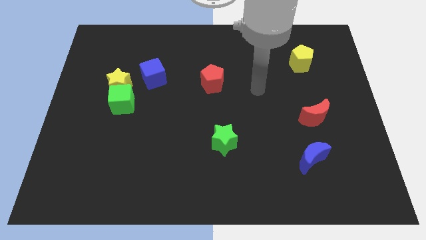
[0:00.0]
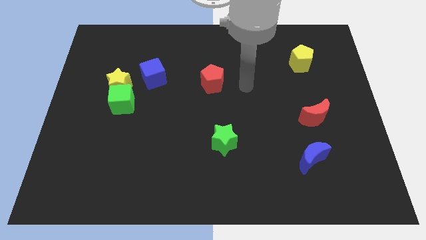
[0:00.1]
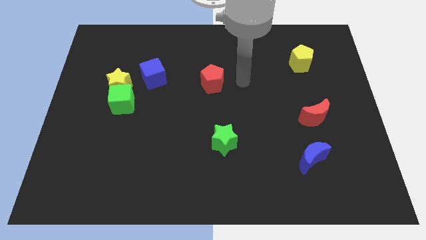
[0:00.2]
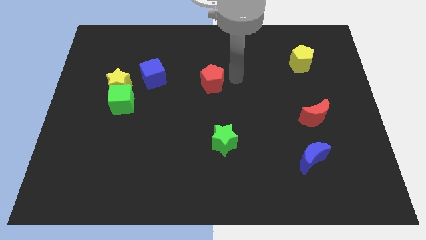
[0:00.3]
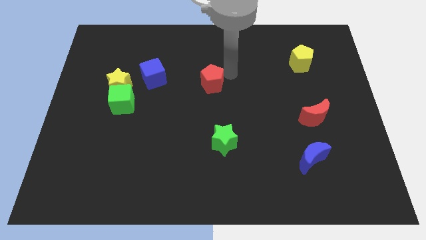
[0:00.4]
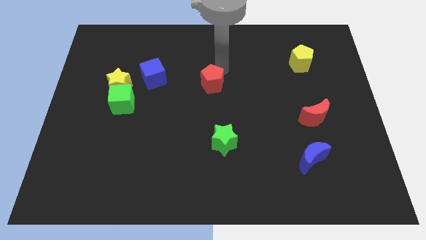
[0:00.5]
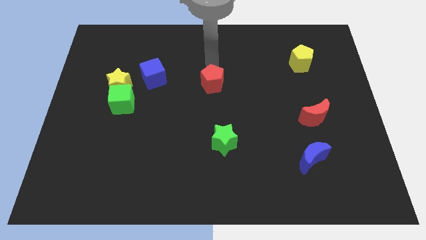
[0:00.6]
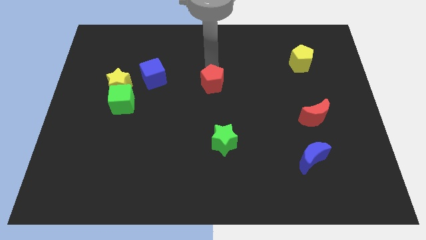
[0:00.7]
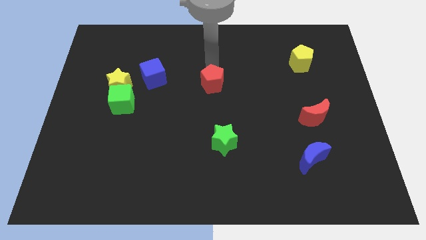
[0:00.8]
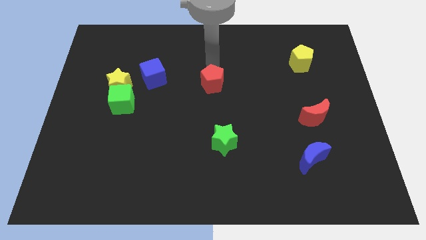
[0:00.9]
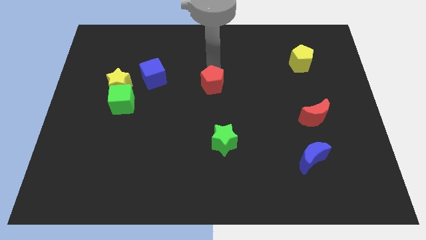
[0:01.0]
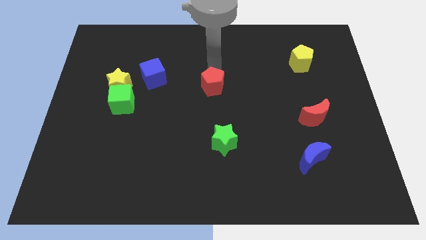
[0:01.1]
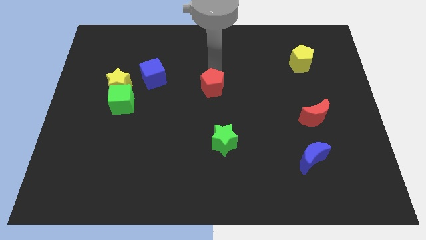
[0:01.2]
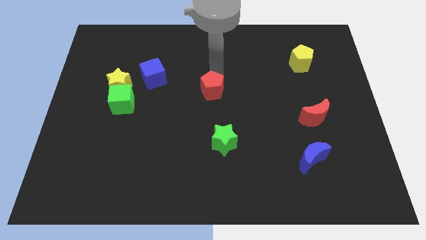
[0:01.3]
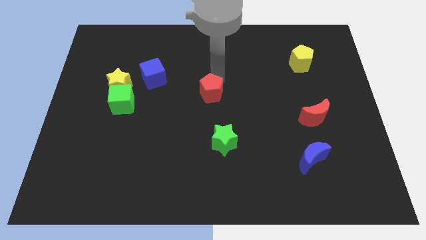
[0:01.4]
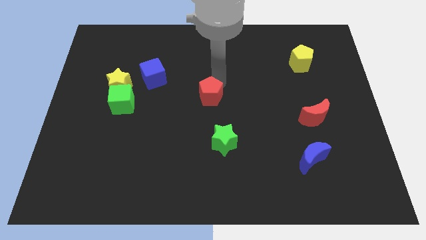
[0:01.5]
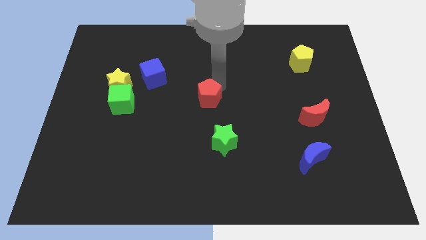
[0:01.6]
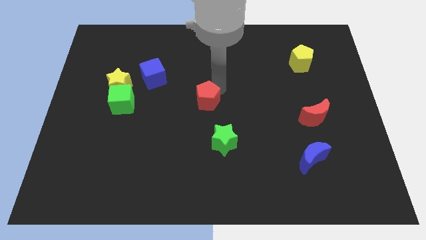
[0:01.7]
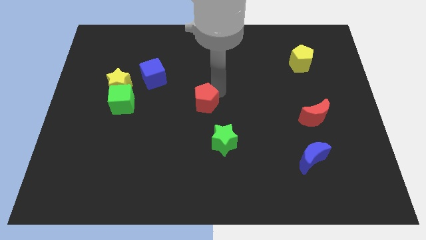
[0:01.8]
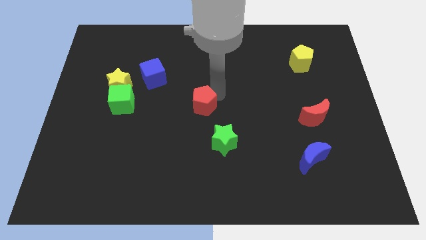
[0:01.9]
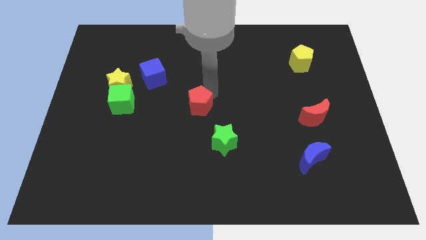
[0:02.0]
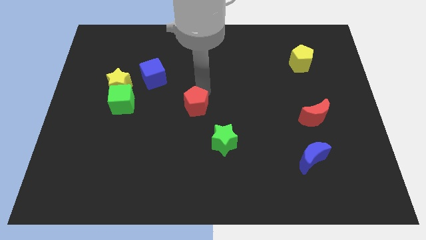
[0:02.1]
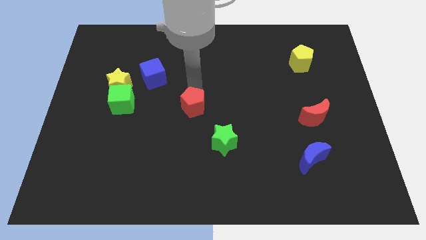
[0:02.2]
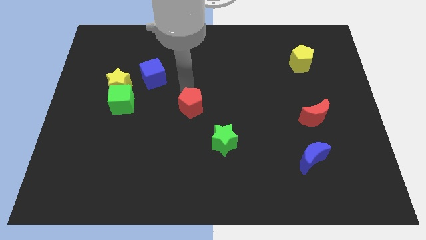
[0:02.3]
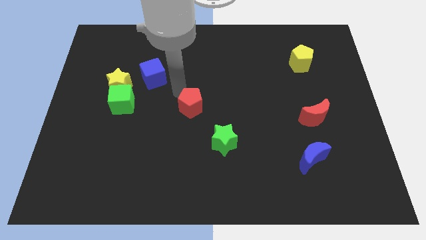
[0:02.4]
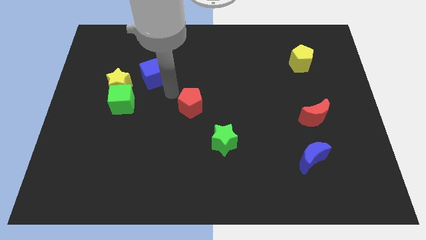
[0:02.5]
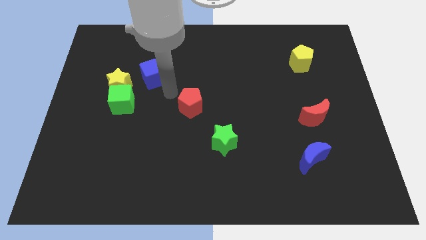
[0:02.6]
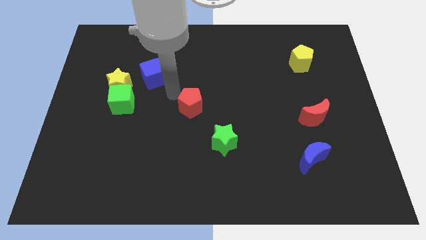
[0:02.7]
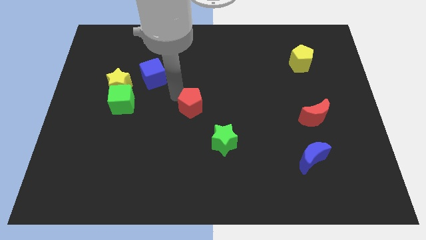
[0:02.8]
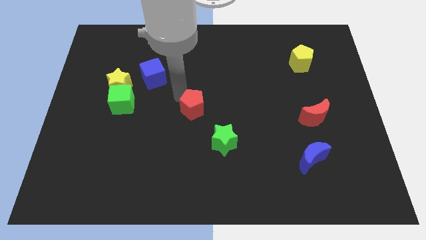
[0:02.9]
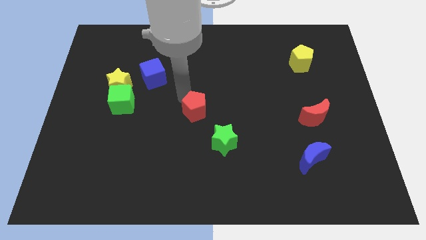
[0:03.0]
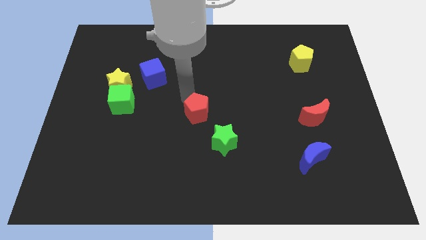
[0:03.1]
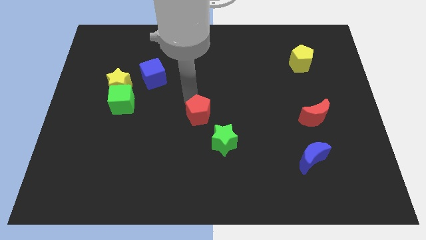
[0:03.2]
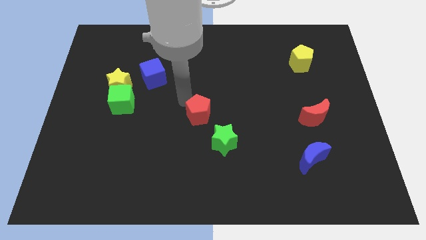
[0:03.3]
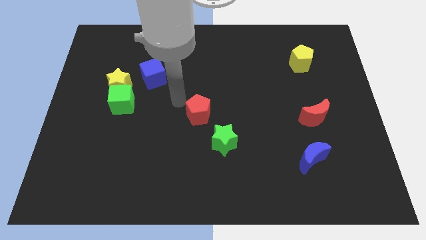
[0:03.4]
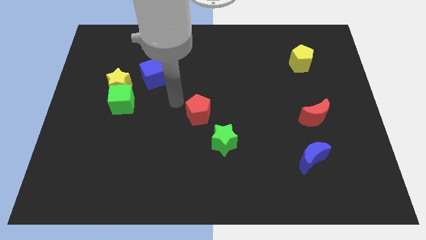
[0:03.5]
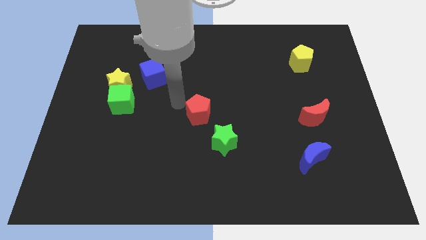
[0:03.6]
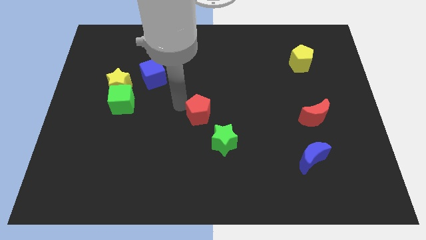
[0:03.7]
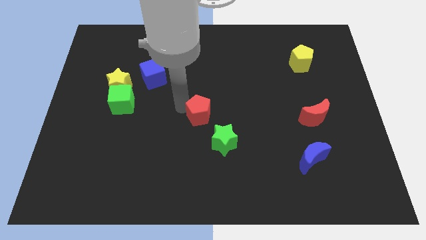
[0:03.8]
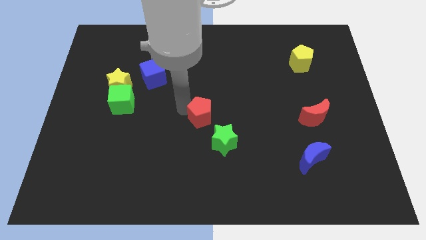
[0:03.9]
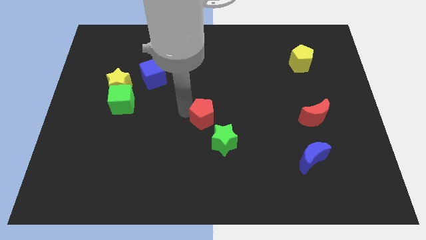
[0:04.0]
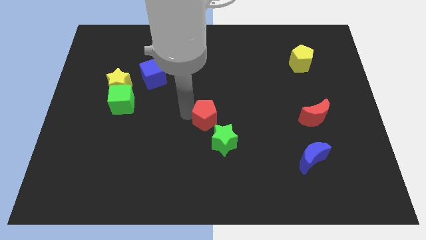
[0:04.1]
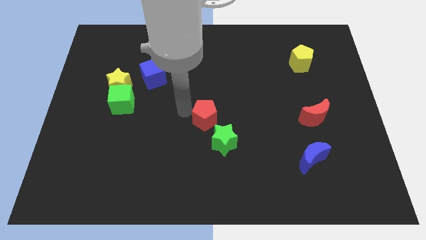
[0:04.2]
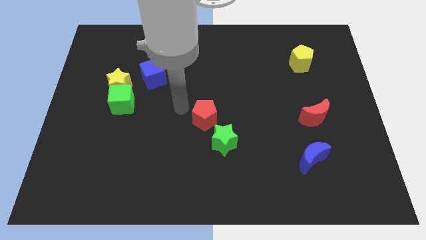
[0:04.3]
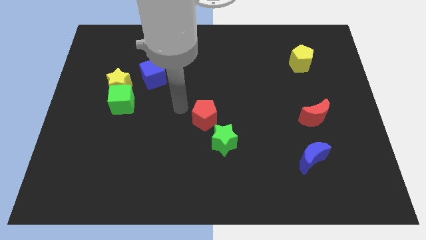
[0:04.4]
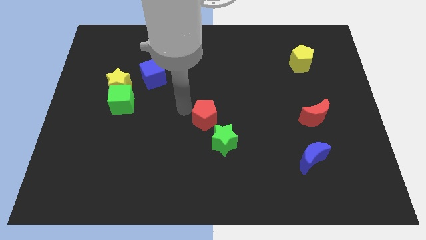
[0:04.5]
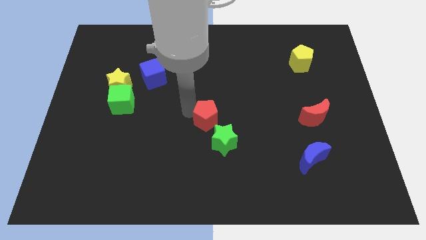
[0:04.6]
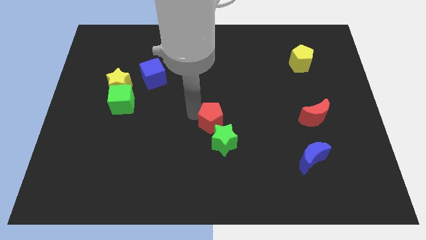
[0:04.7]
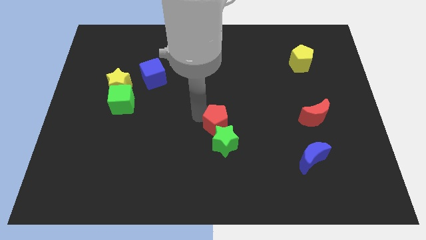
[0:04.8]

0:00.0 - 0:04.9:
move the red pentagon to the green star

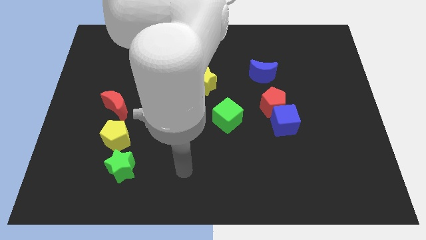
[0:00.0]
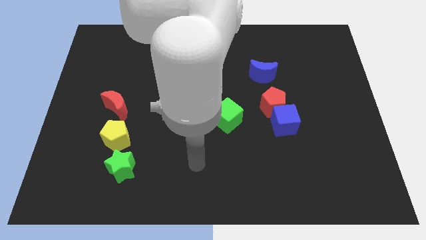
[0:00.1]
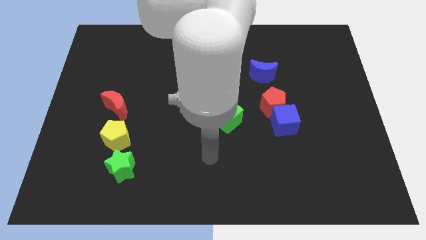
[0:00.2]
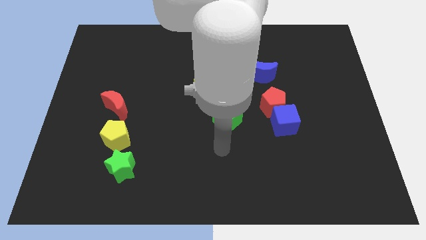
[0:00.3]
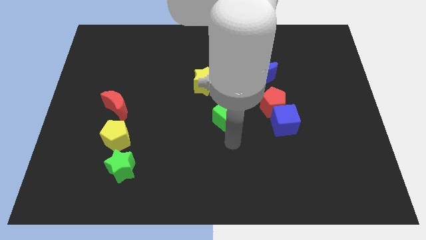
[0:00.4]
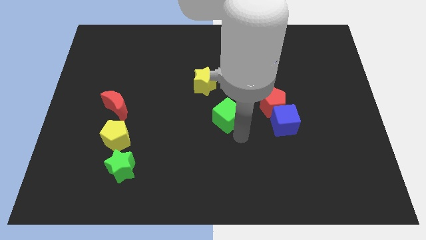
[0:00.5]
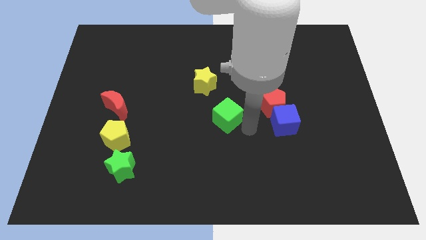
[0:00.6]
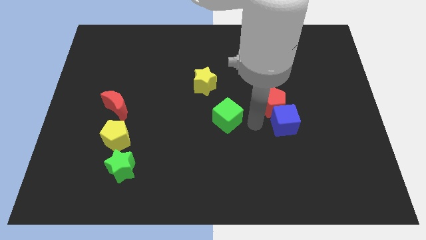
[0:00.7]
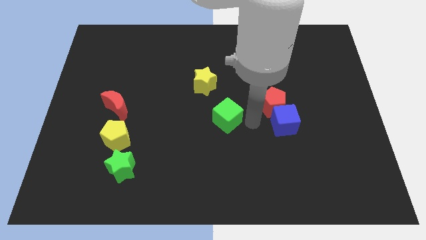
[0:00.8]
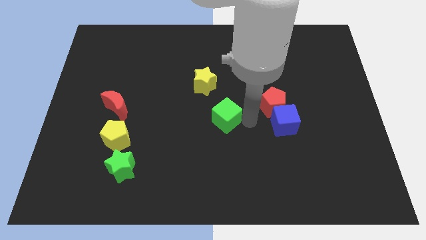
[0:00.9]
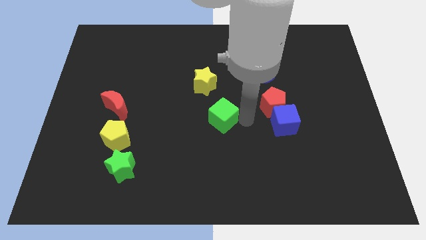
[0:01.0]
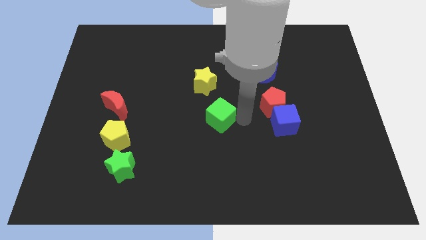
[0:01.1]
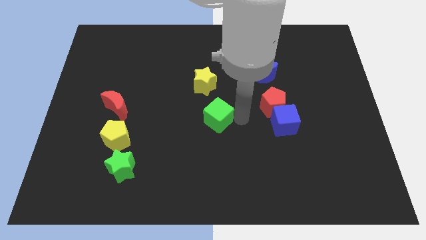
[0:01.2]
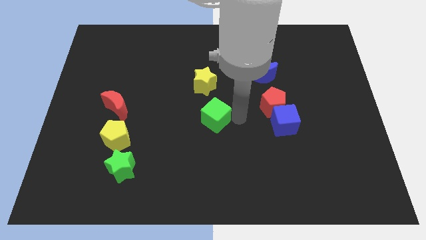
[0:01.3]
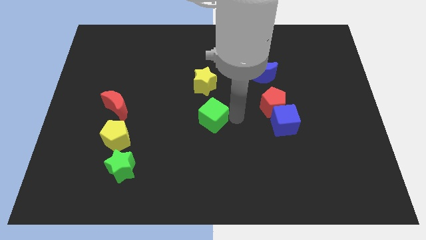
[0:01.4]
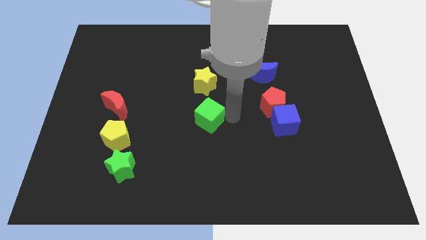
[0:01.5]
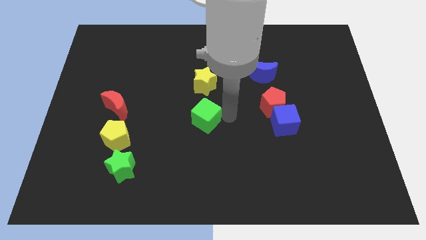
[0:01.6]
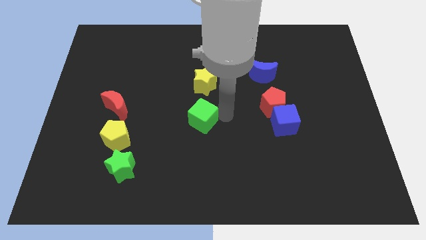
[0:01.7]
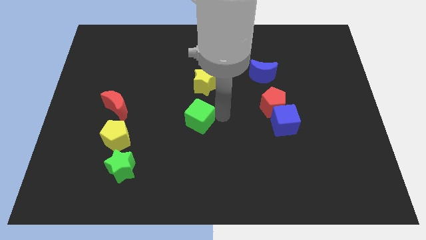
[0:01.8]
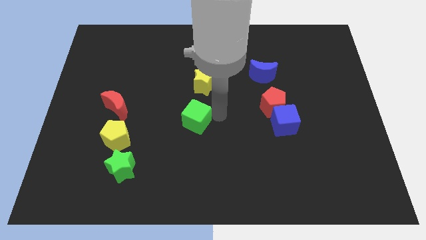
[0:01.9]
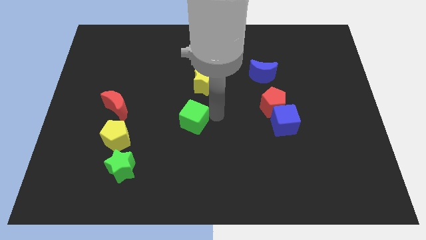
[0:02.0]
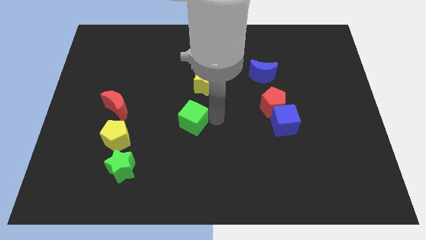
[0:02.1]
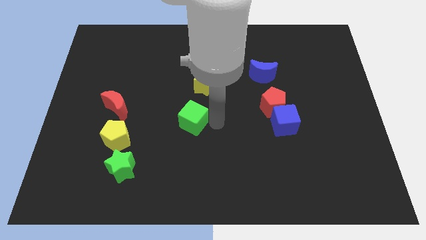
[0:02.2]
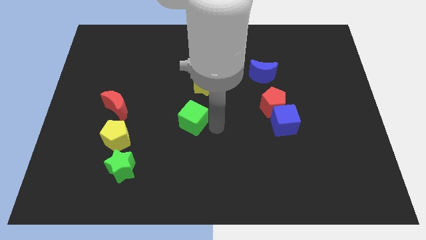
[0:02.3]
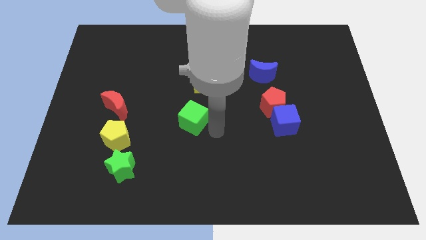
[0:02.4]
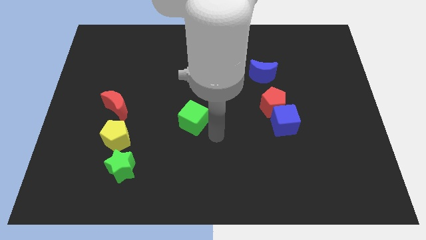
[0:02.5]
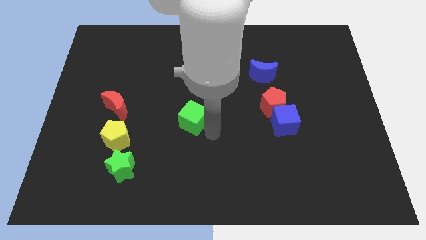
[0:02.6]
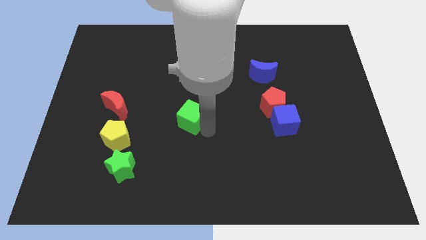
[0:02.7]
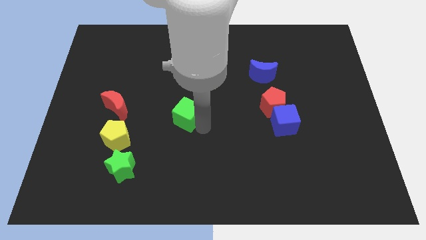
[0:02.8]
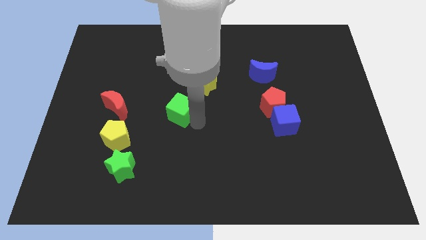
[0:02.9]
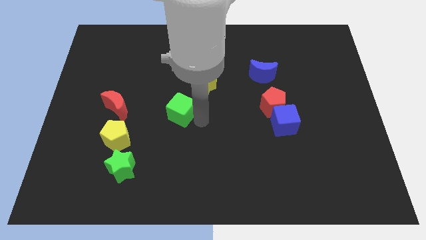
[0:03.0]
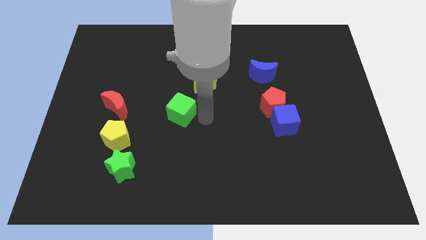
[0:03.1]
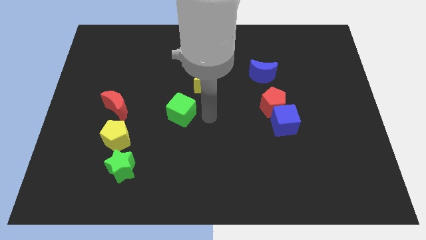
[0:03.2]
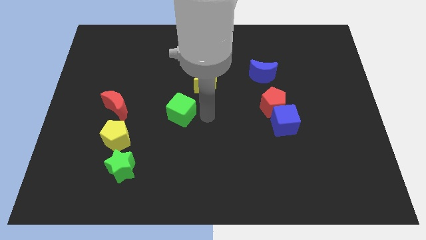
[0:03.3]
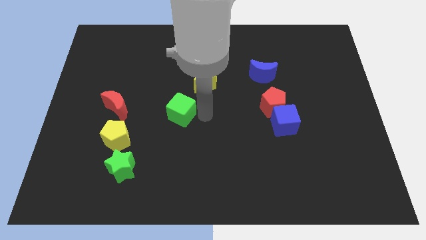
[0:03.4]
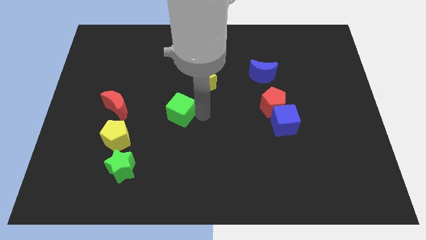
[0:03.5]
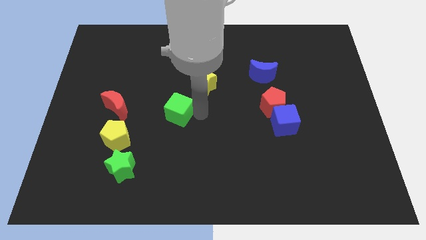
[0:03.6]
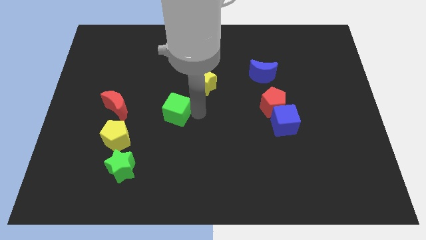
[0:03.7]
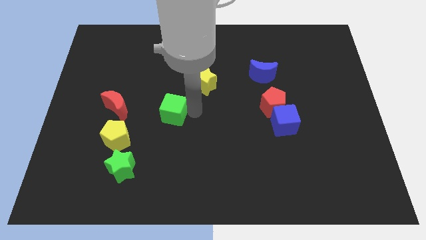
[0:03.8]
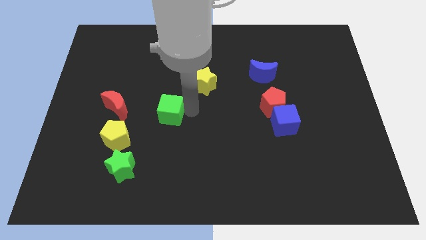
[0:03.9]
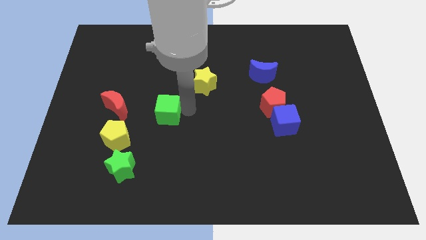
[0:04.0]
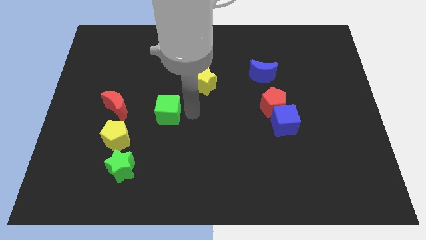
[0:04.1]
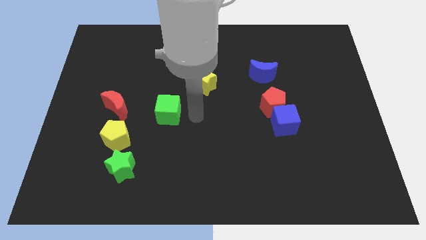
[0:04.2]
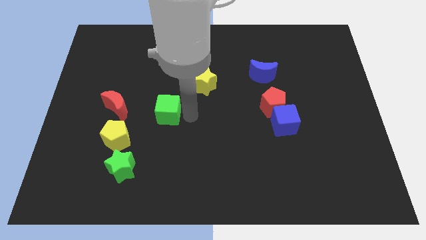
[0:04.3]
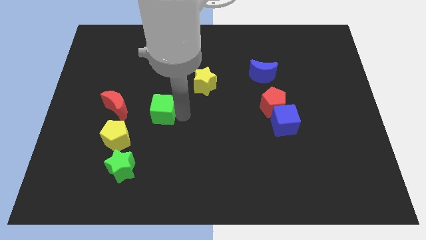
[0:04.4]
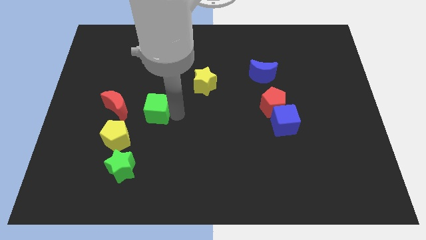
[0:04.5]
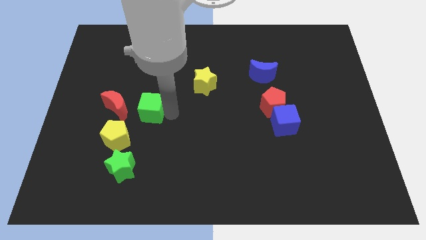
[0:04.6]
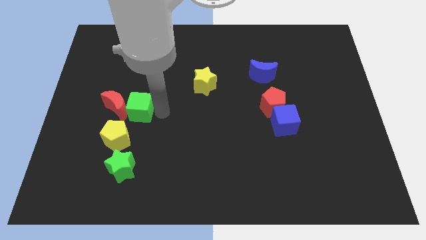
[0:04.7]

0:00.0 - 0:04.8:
put the green cube close to the red moon
